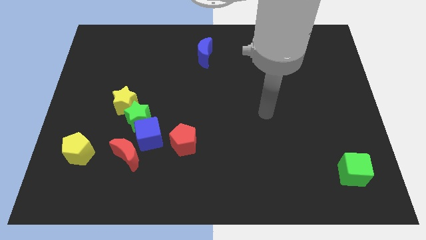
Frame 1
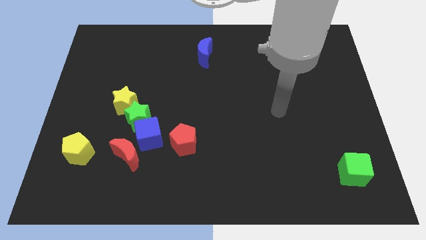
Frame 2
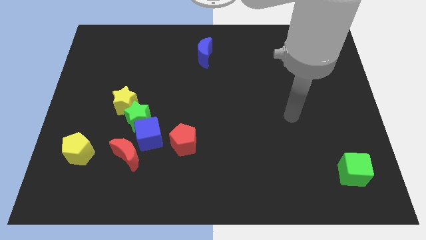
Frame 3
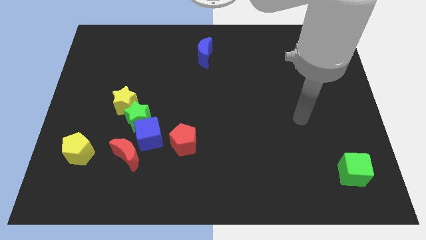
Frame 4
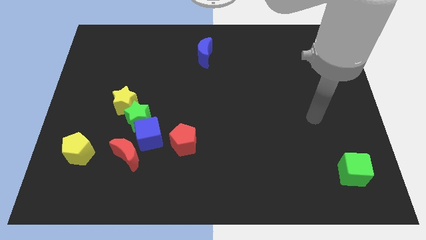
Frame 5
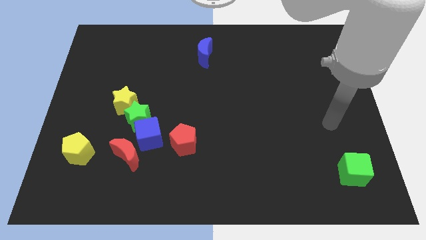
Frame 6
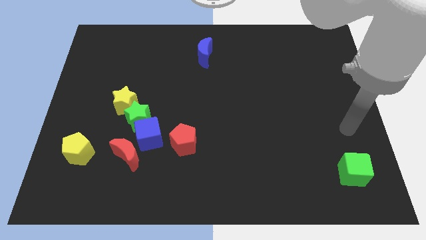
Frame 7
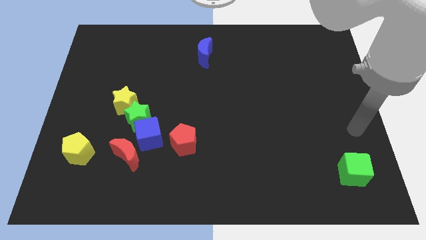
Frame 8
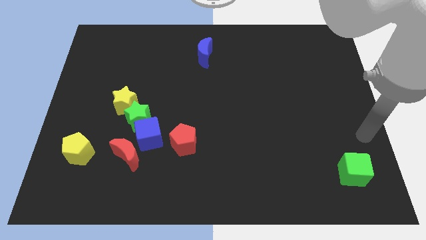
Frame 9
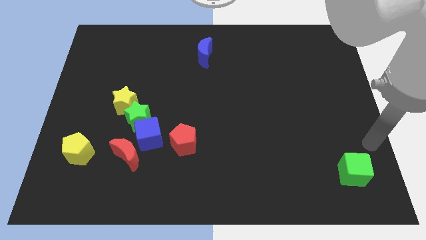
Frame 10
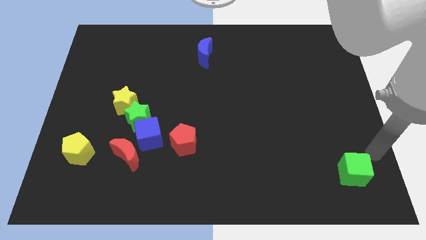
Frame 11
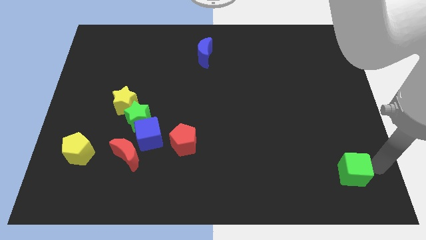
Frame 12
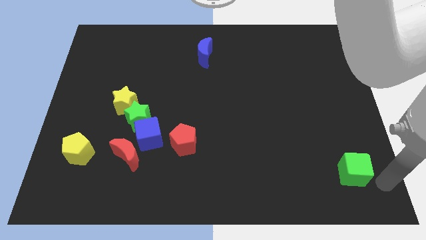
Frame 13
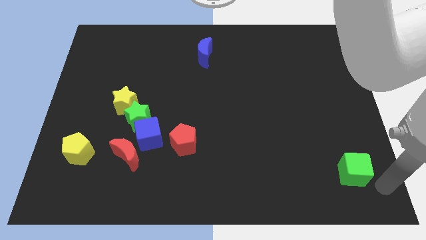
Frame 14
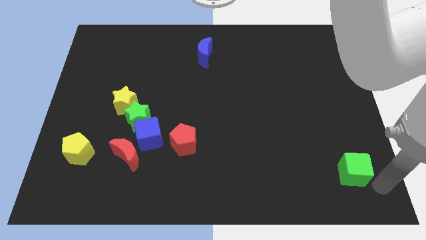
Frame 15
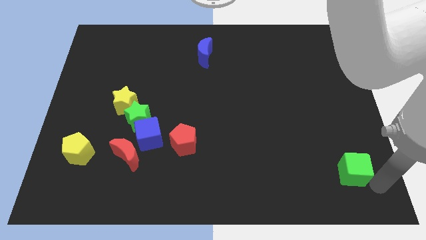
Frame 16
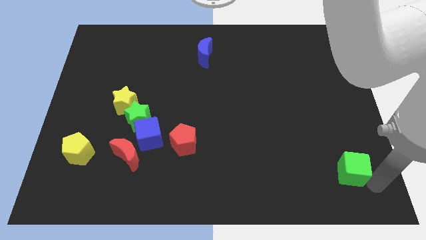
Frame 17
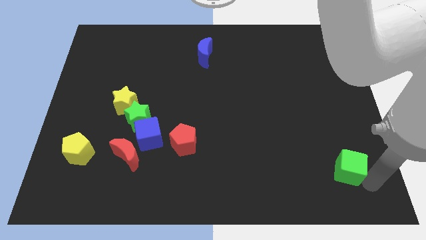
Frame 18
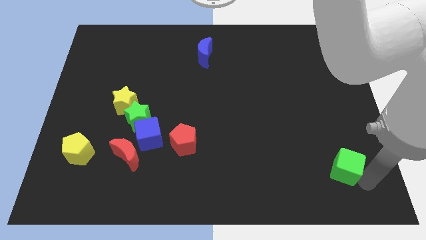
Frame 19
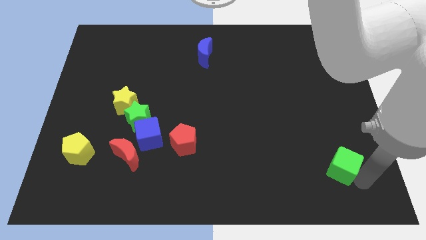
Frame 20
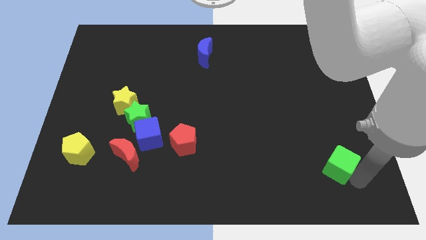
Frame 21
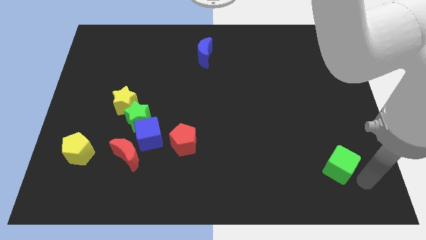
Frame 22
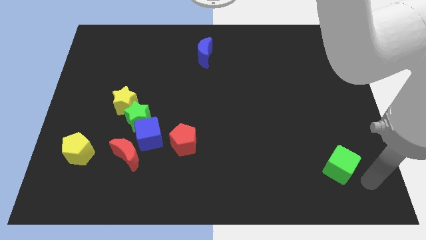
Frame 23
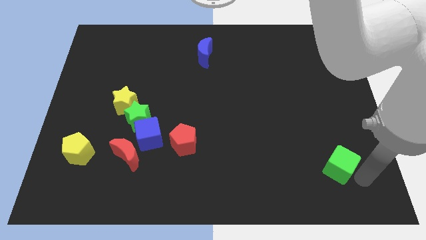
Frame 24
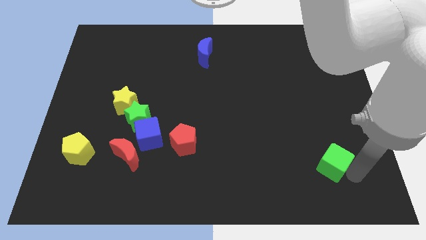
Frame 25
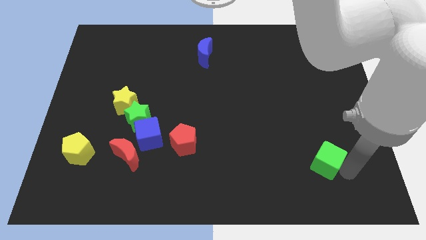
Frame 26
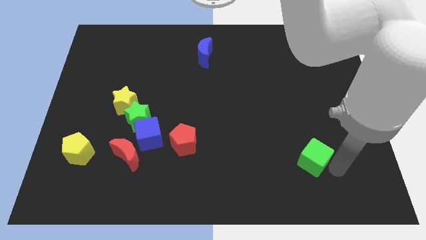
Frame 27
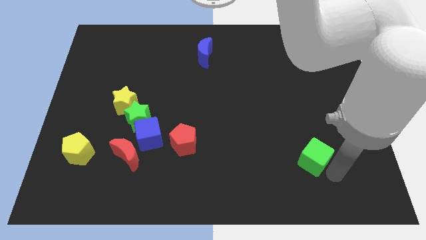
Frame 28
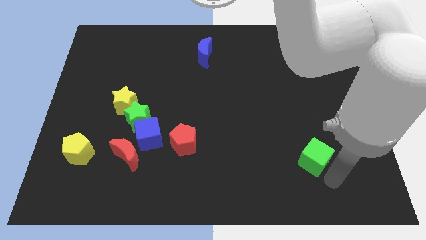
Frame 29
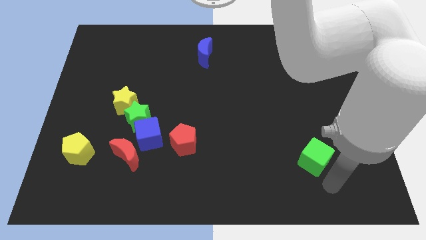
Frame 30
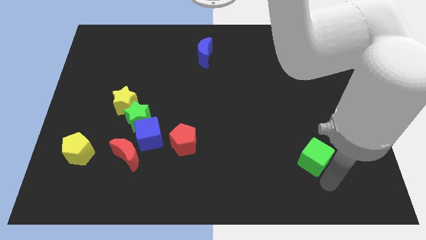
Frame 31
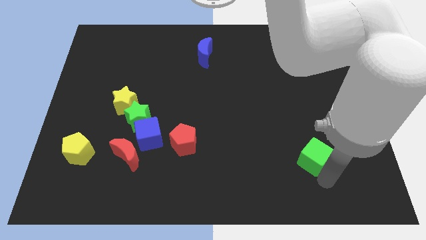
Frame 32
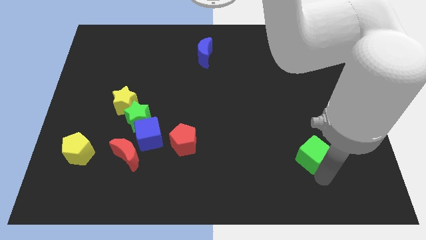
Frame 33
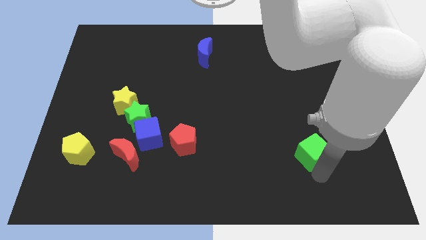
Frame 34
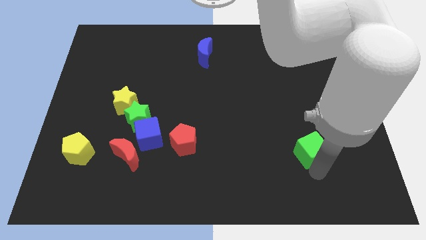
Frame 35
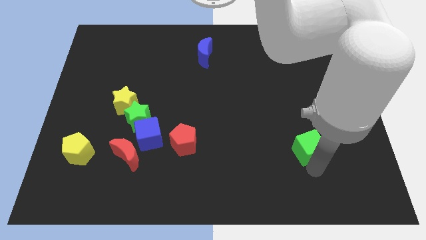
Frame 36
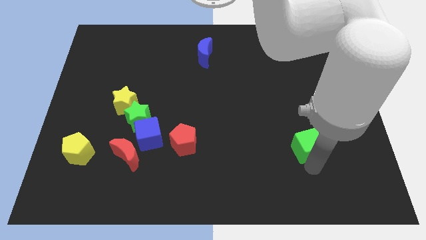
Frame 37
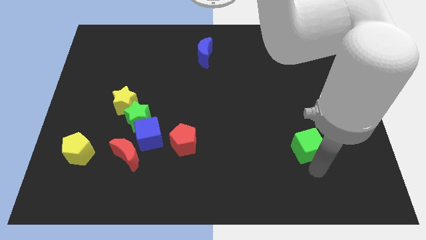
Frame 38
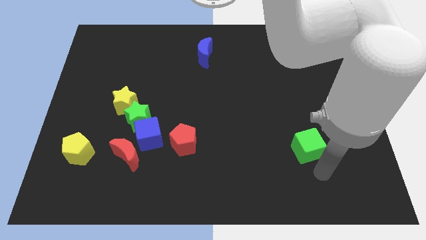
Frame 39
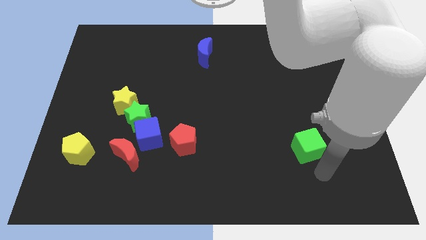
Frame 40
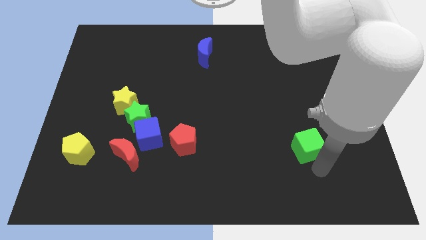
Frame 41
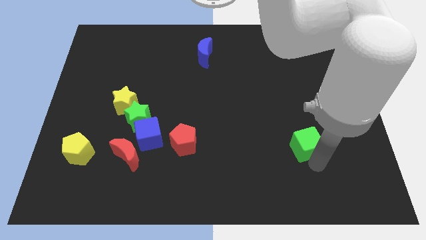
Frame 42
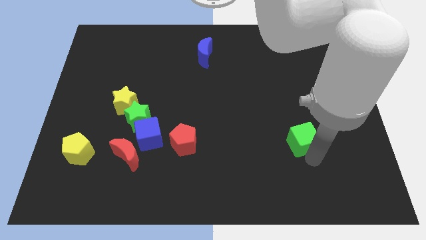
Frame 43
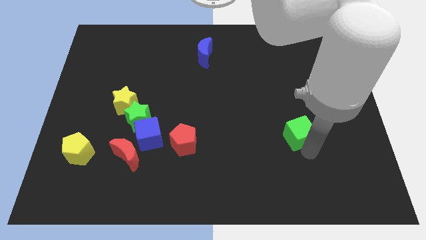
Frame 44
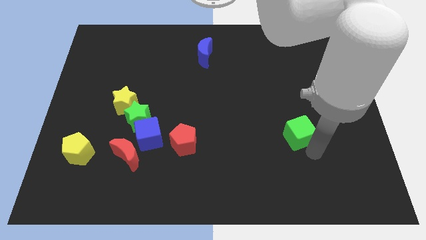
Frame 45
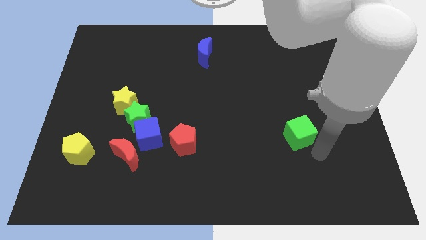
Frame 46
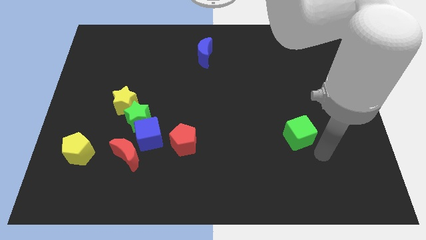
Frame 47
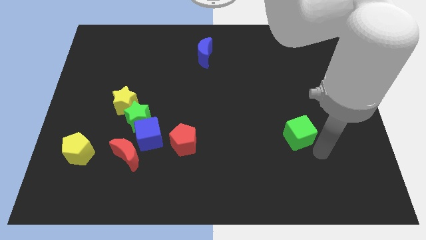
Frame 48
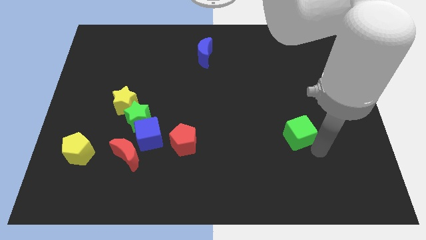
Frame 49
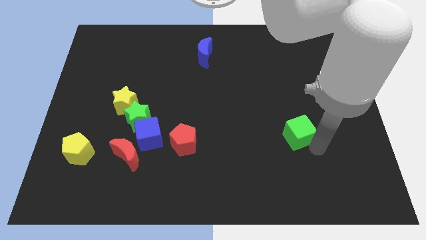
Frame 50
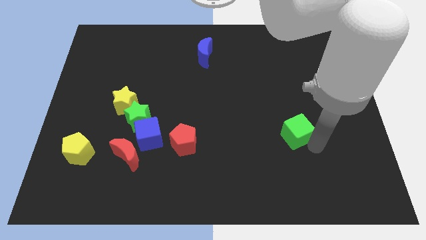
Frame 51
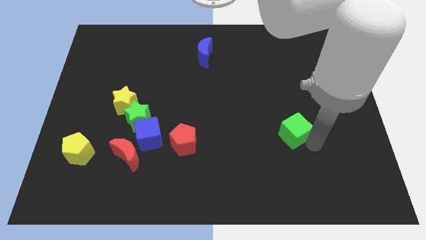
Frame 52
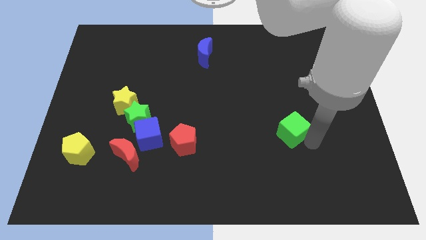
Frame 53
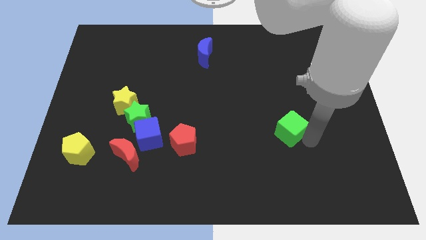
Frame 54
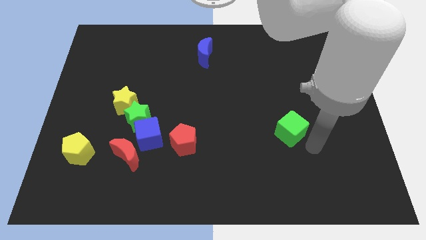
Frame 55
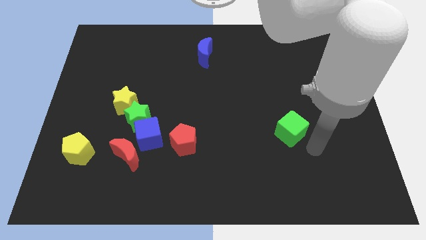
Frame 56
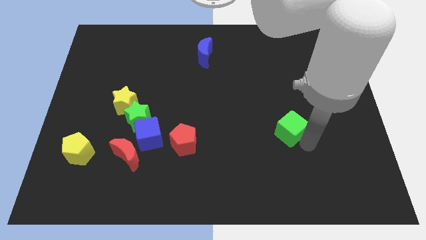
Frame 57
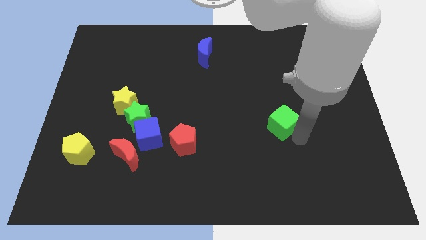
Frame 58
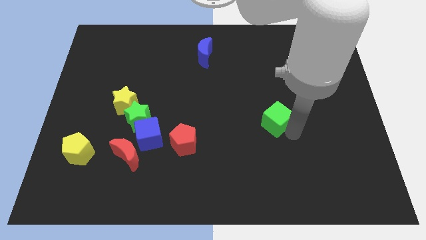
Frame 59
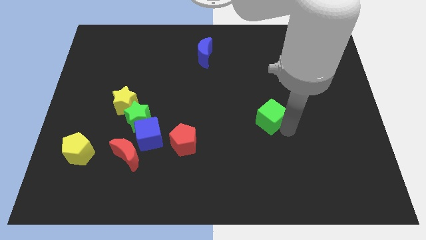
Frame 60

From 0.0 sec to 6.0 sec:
push the green cube up and then left

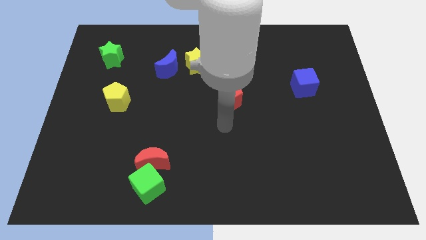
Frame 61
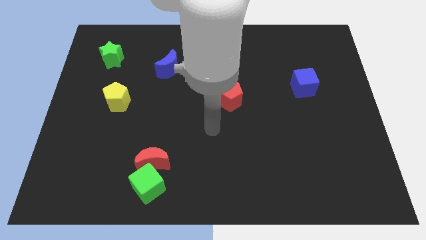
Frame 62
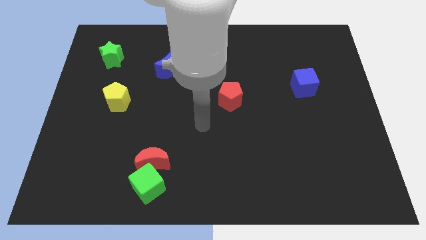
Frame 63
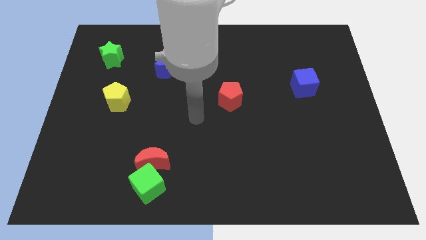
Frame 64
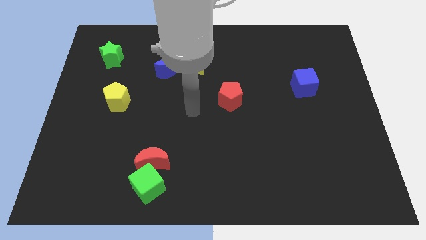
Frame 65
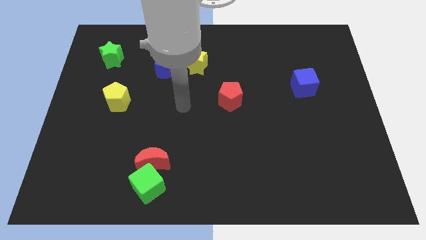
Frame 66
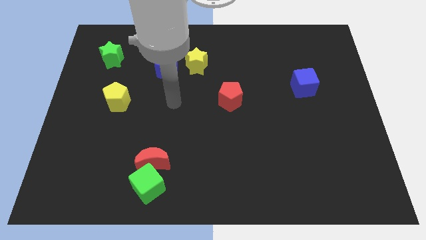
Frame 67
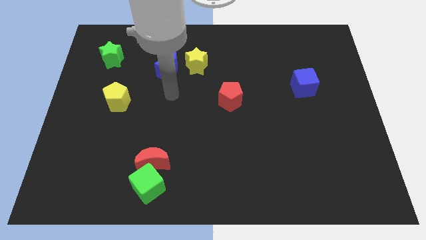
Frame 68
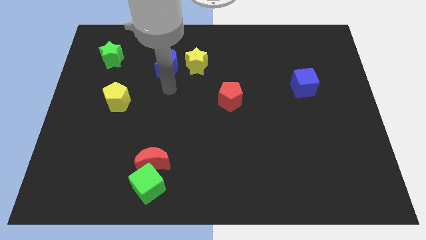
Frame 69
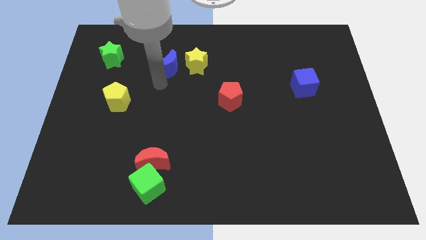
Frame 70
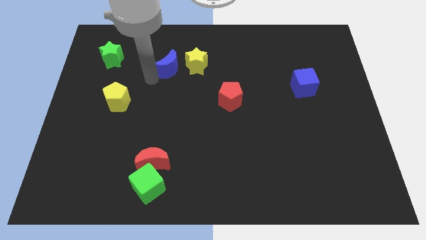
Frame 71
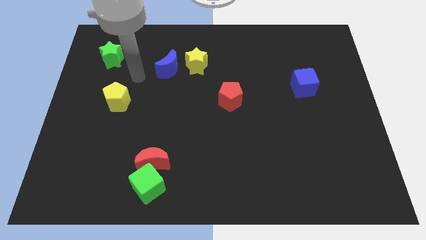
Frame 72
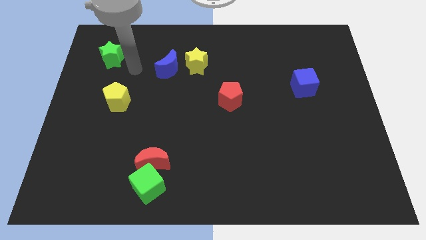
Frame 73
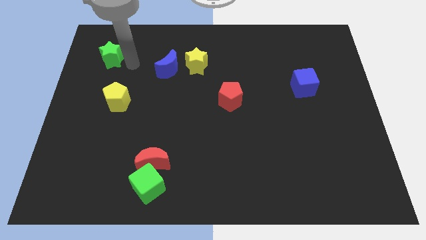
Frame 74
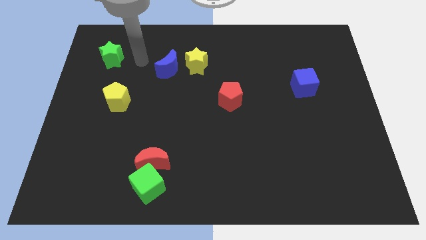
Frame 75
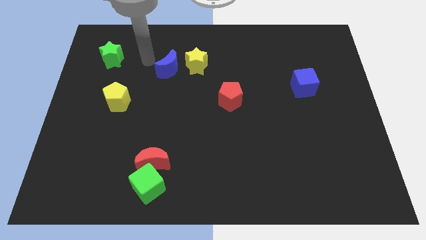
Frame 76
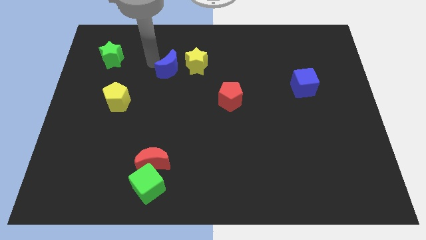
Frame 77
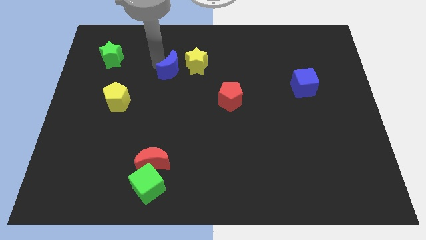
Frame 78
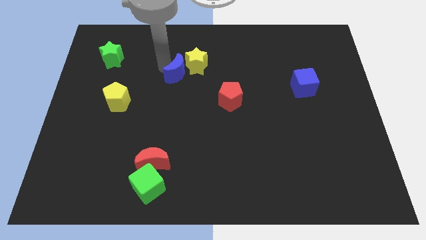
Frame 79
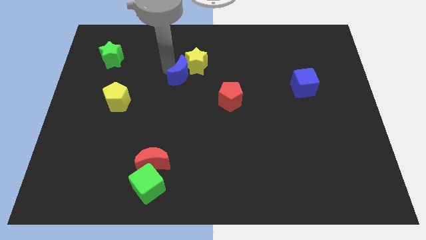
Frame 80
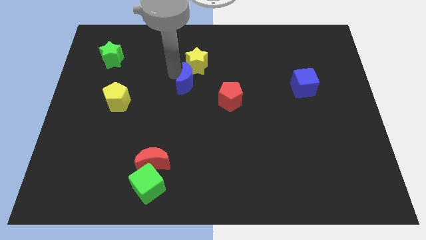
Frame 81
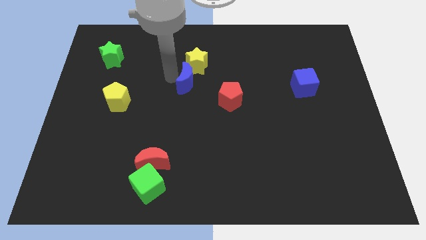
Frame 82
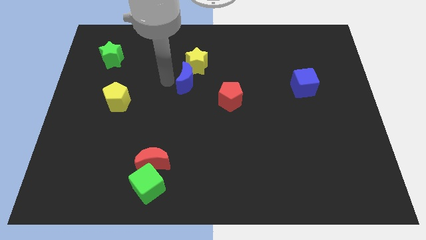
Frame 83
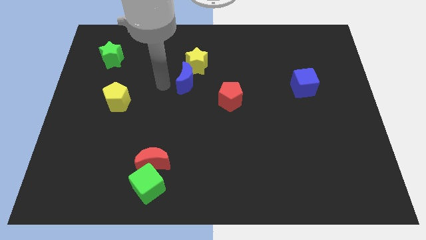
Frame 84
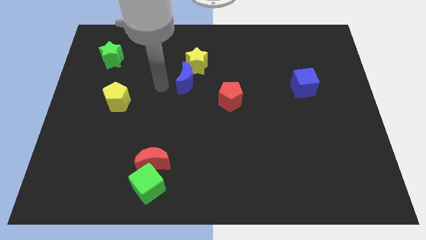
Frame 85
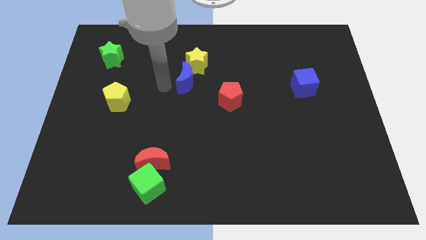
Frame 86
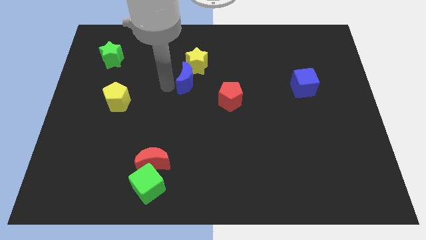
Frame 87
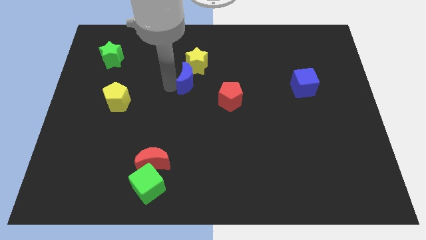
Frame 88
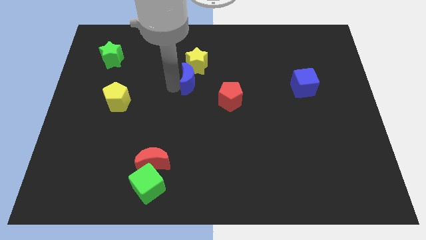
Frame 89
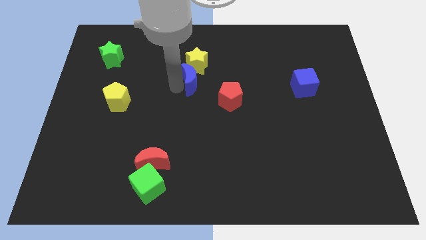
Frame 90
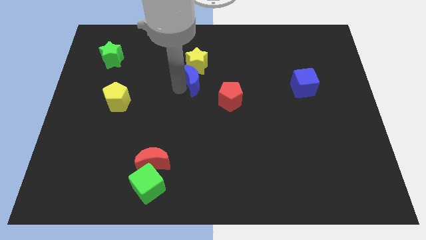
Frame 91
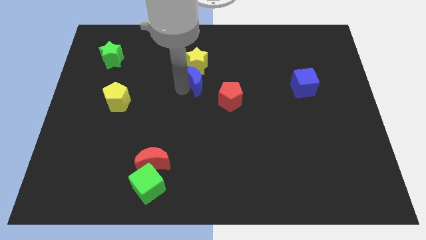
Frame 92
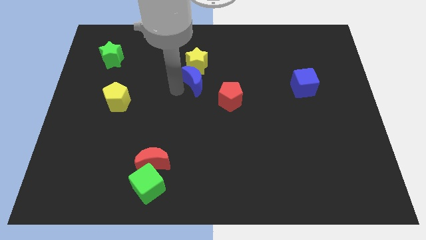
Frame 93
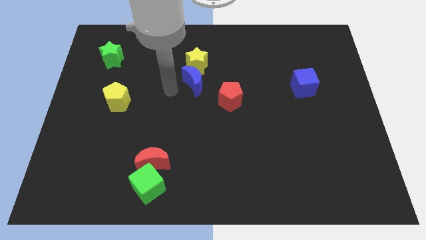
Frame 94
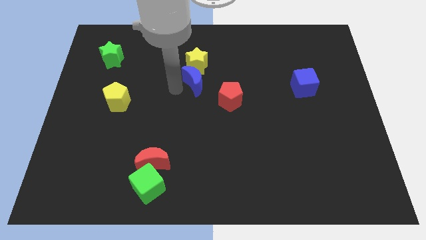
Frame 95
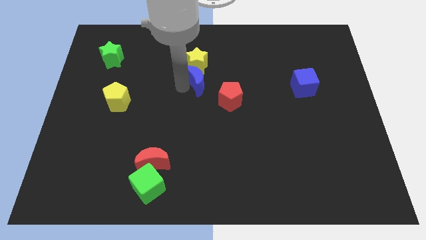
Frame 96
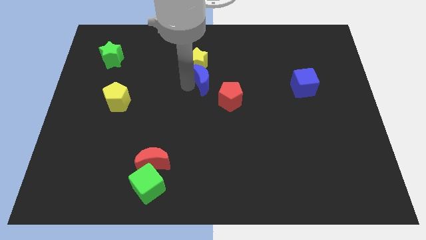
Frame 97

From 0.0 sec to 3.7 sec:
move the blue moon a little right
